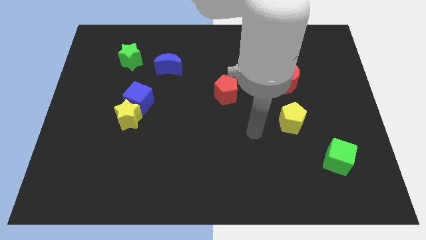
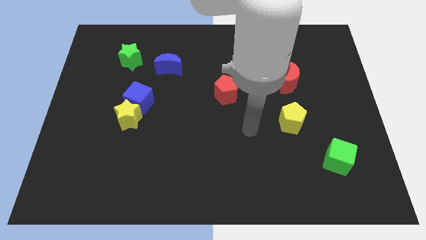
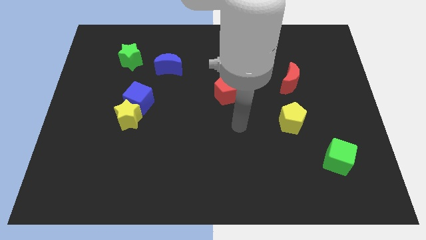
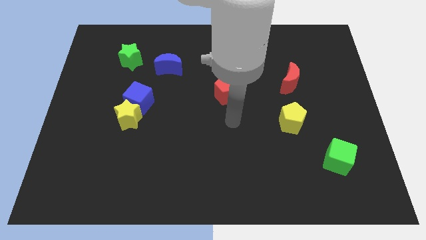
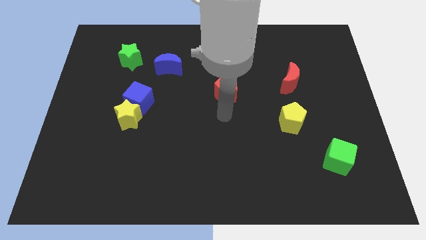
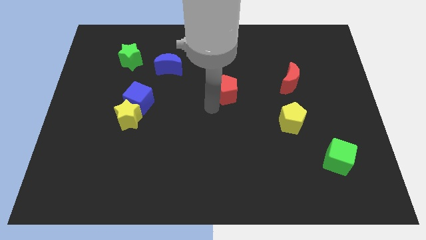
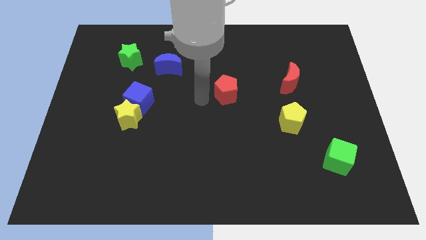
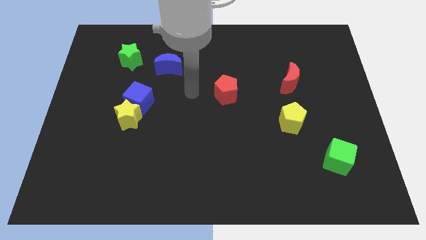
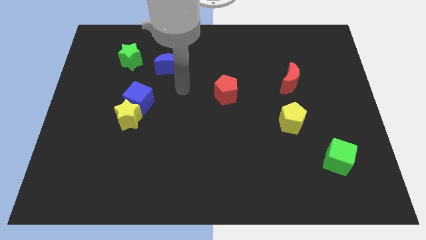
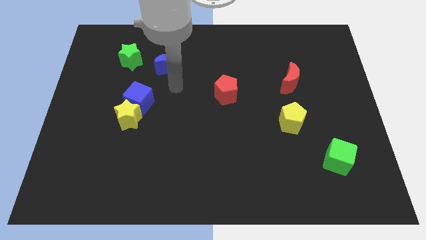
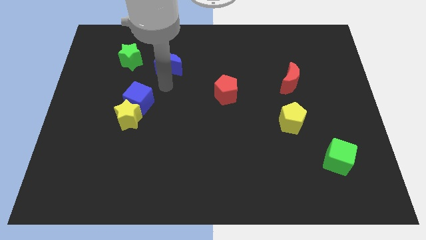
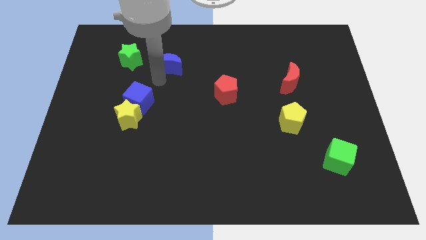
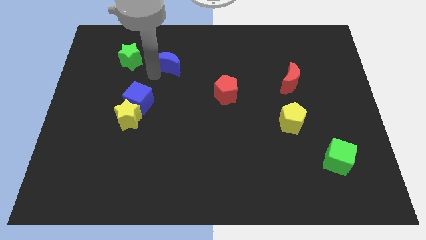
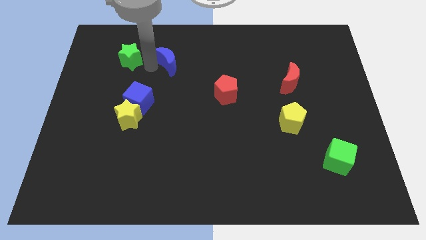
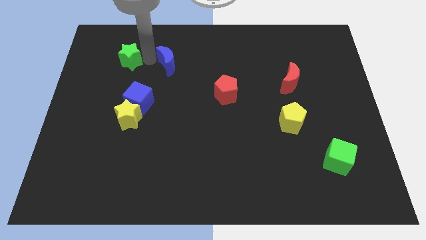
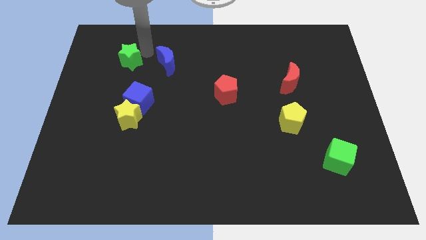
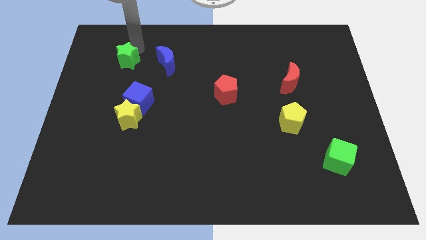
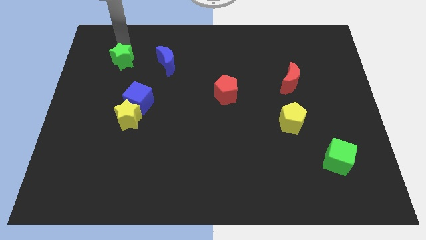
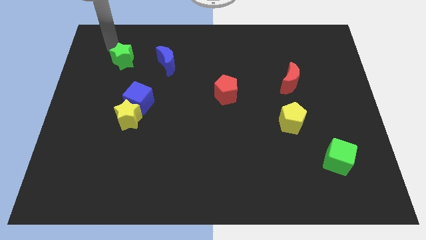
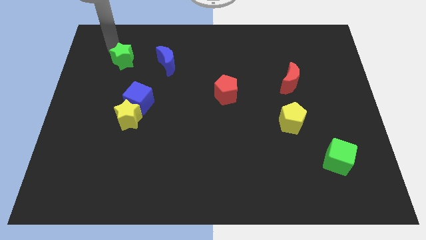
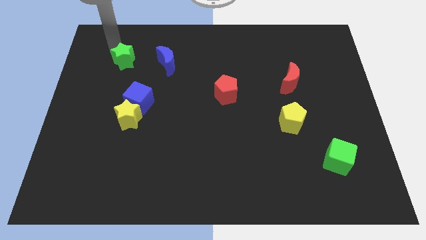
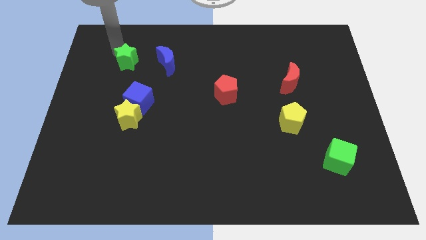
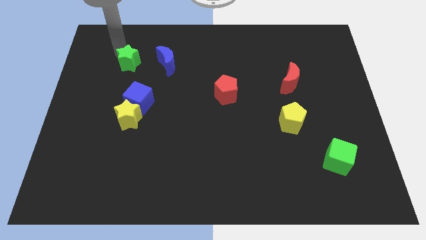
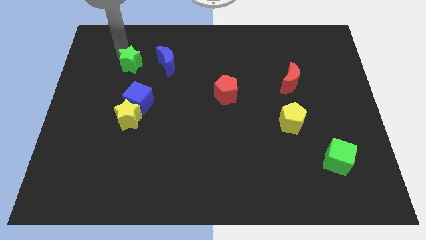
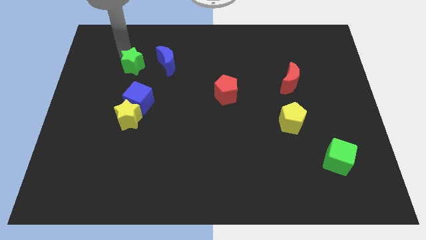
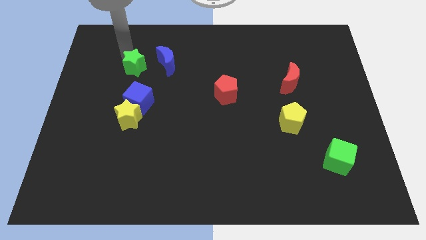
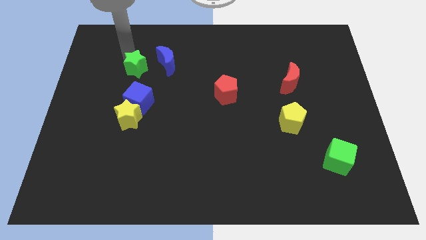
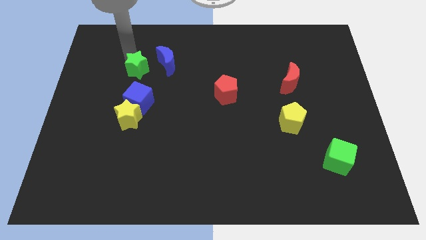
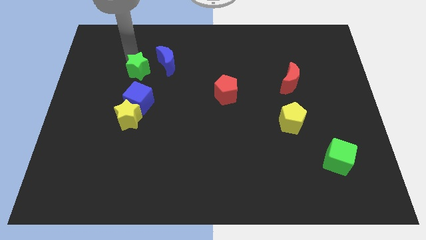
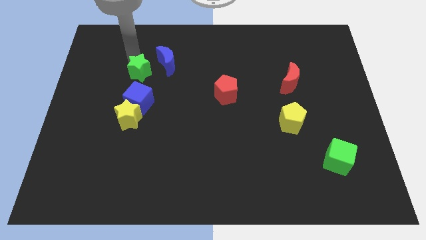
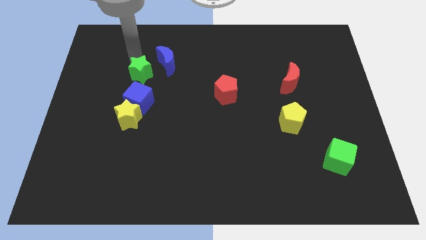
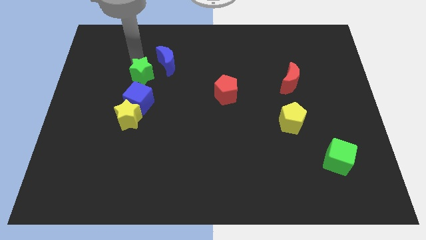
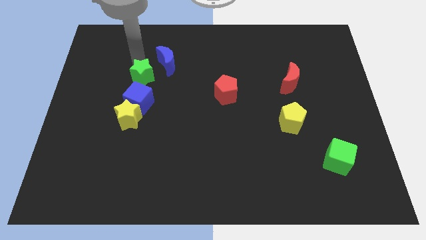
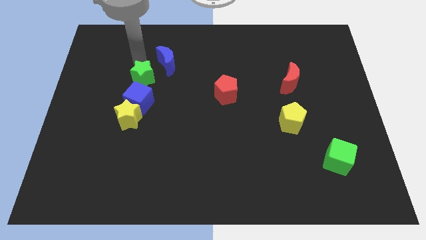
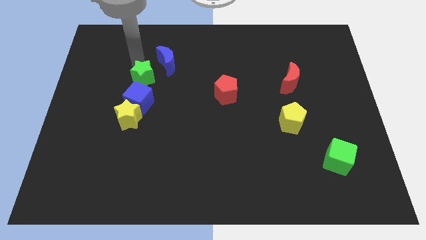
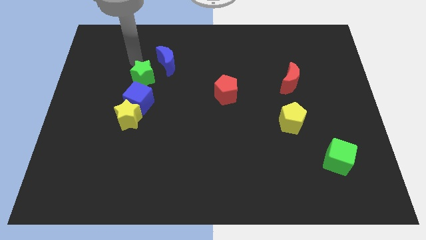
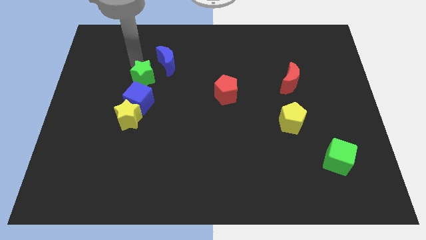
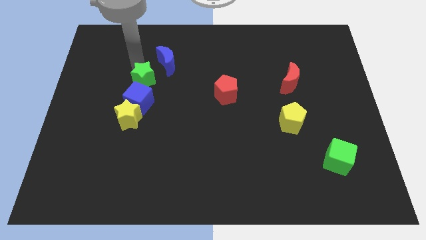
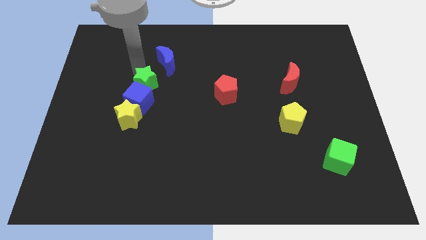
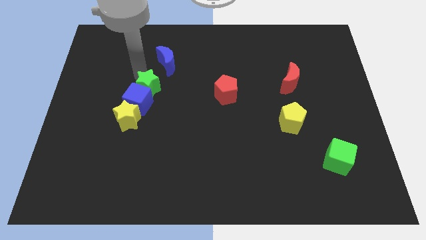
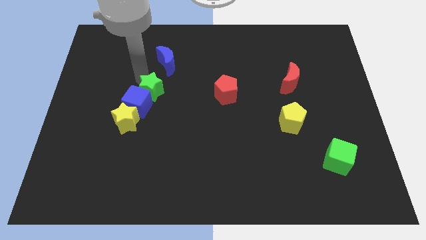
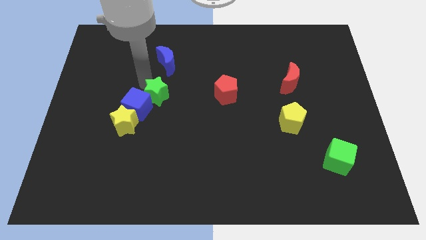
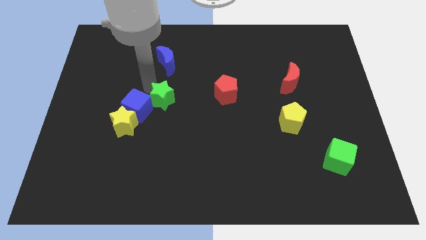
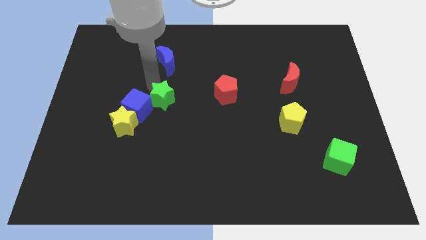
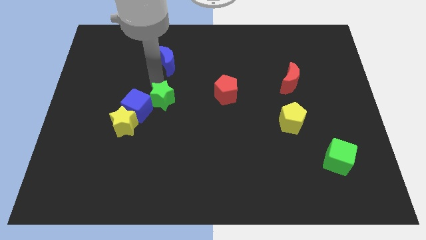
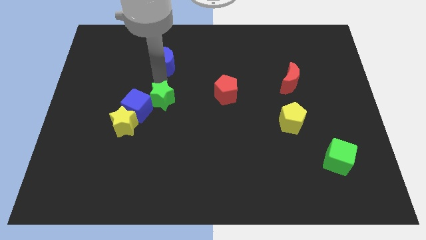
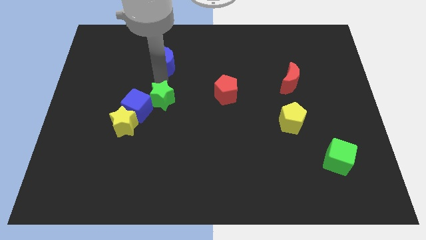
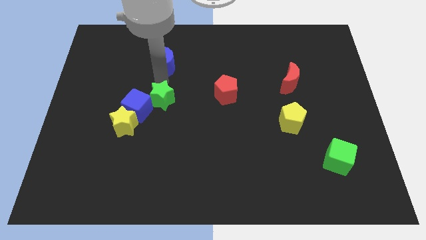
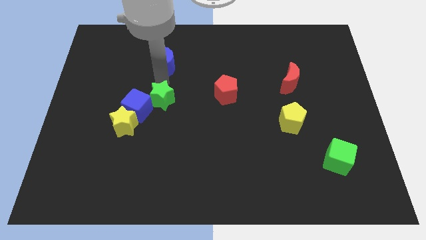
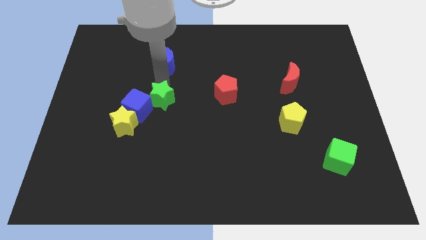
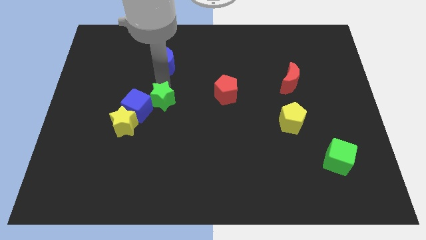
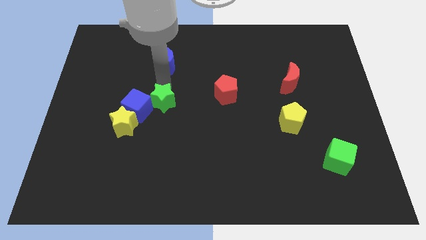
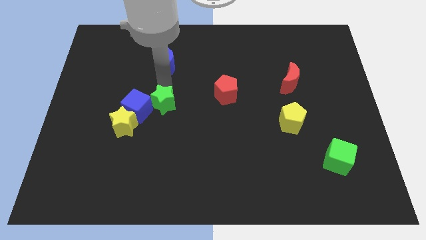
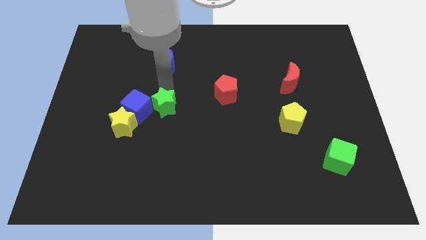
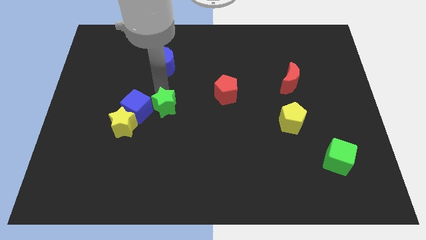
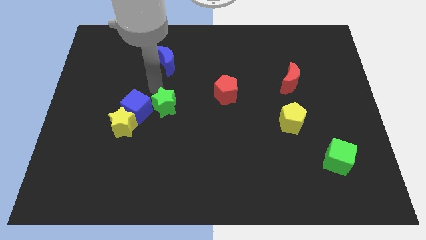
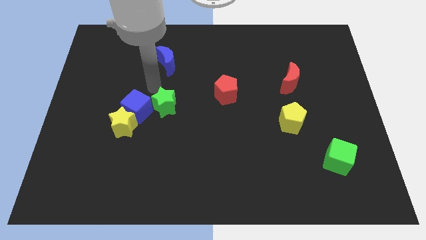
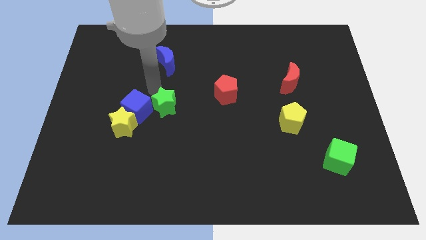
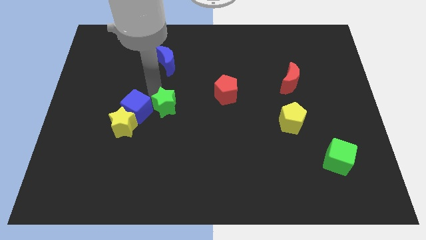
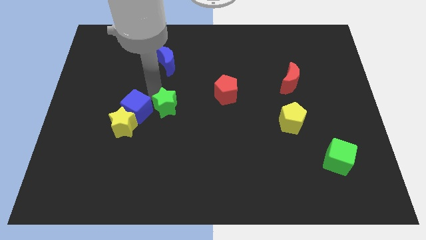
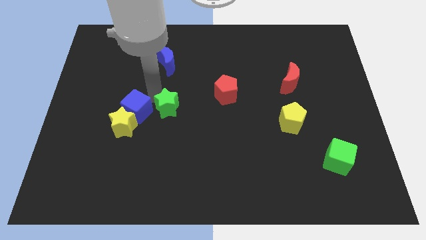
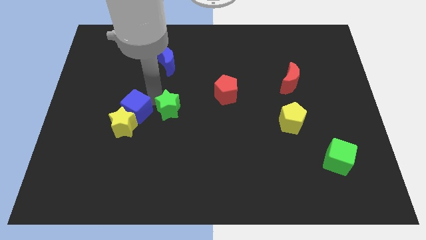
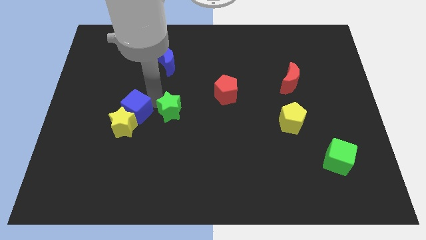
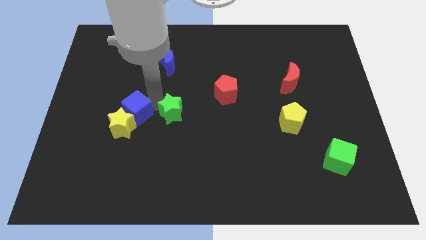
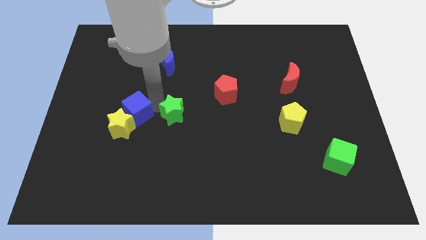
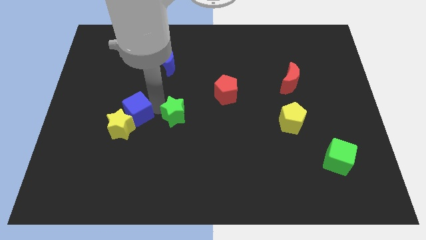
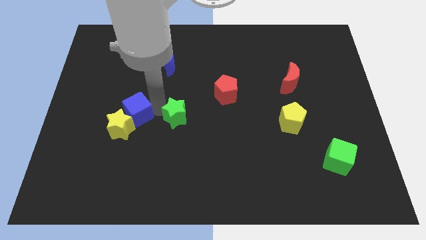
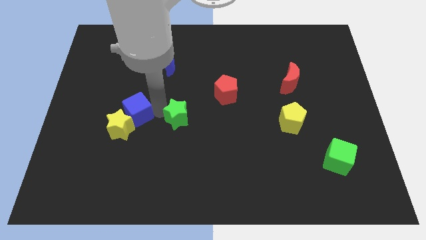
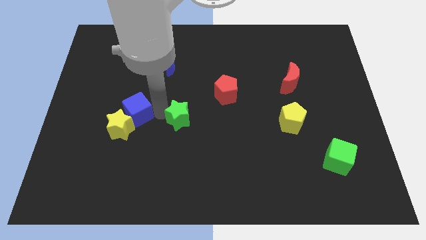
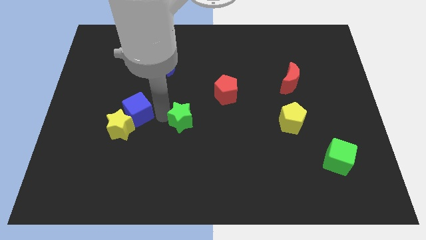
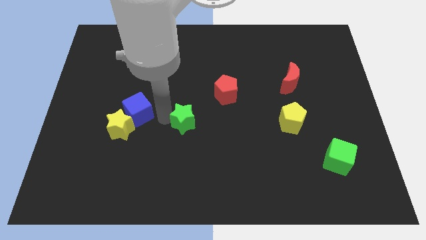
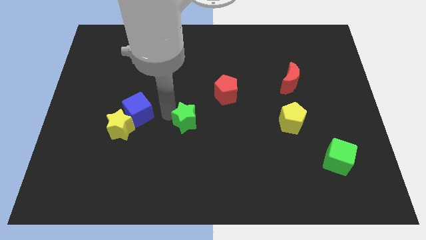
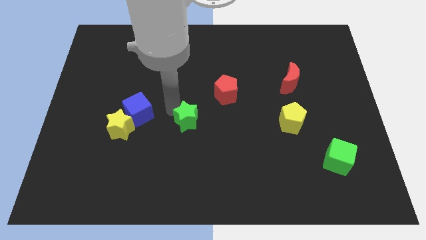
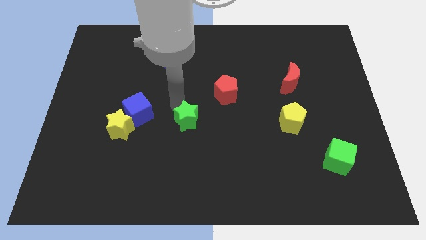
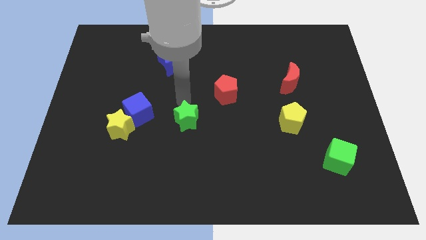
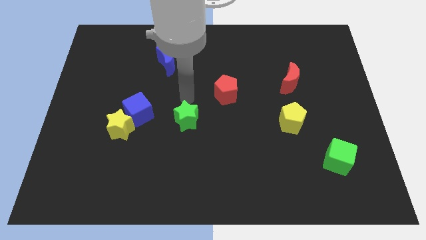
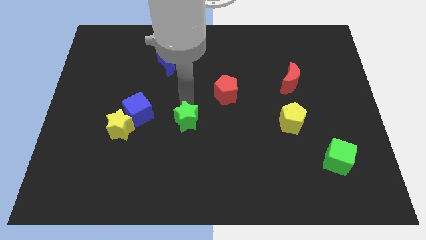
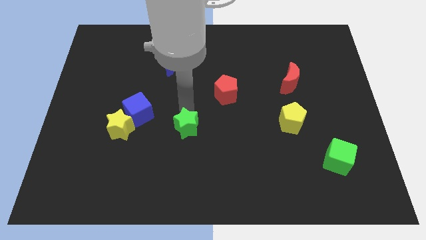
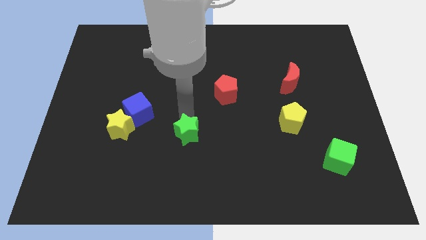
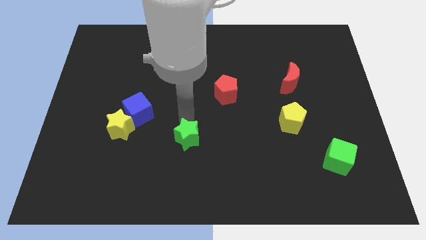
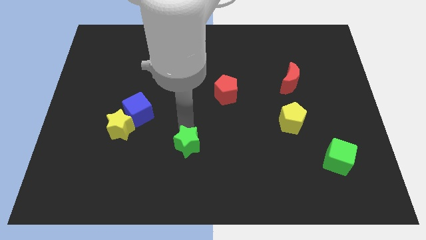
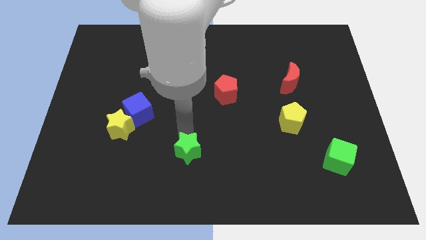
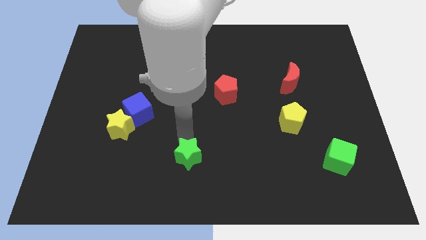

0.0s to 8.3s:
move the green star to the bottom side
